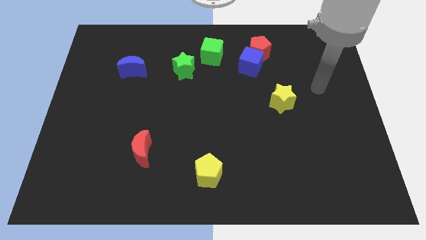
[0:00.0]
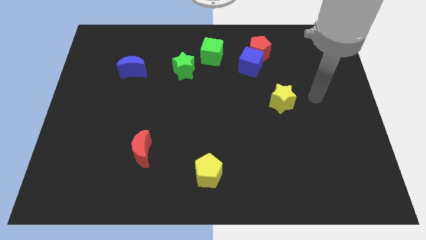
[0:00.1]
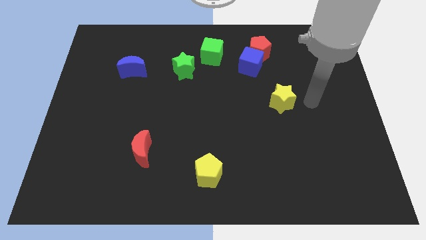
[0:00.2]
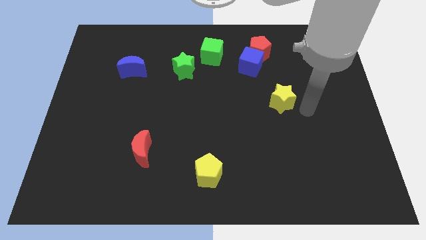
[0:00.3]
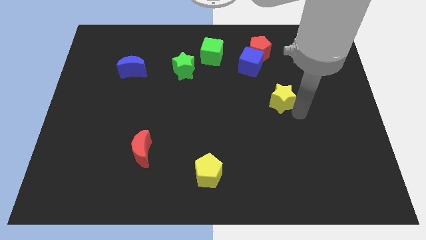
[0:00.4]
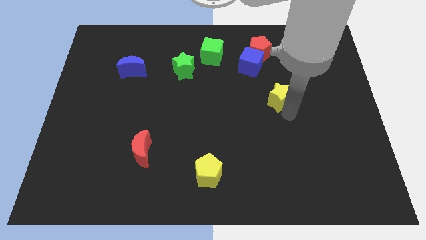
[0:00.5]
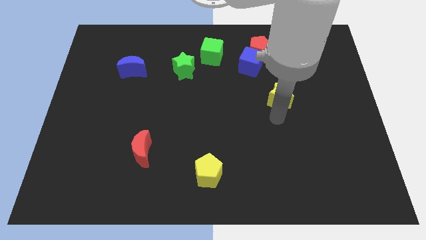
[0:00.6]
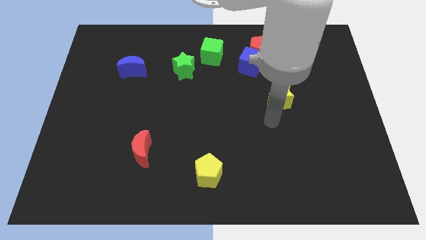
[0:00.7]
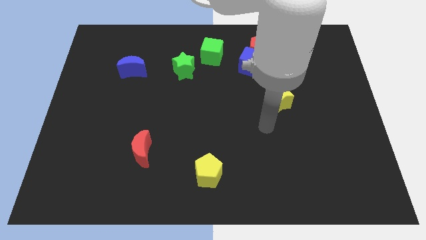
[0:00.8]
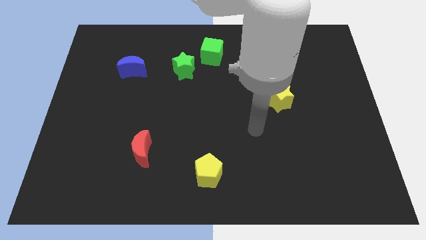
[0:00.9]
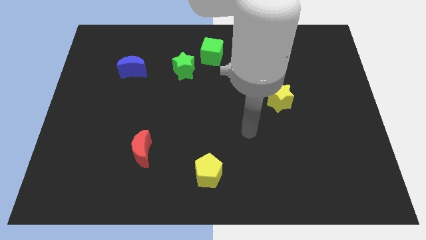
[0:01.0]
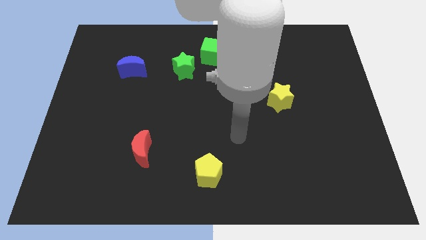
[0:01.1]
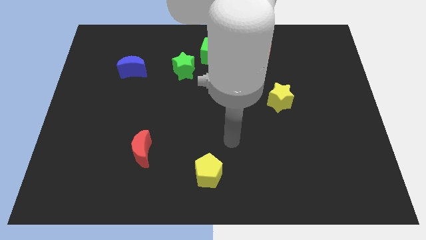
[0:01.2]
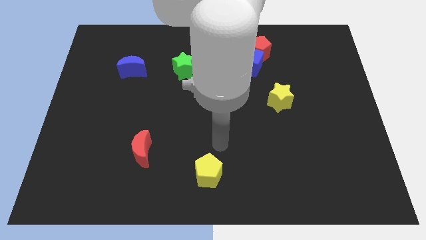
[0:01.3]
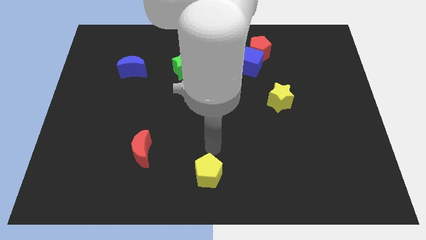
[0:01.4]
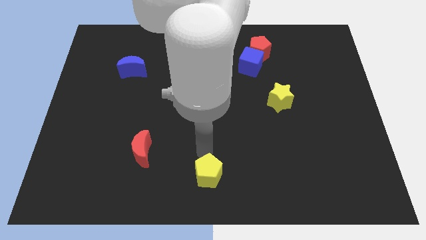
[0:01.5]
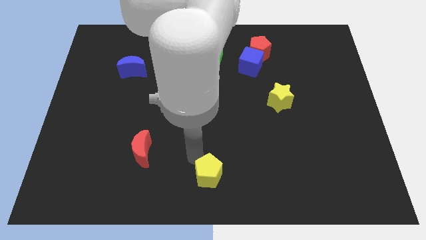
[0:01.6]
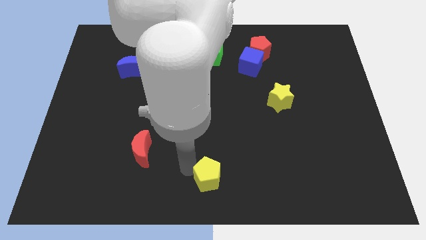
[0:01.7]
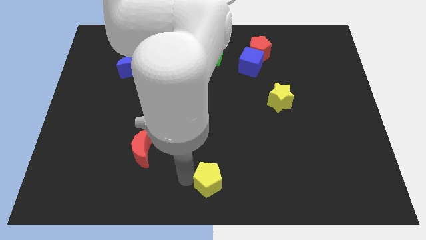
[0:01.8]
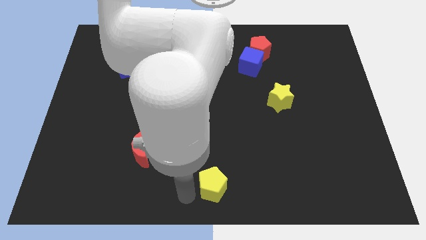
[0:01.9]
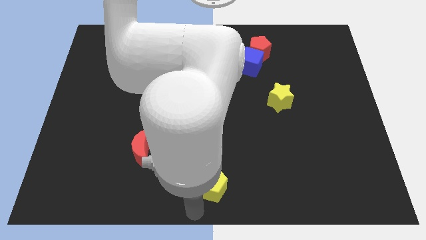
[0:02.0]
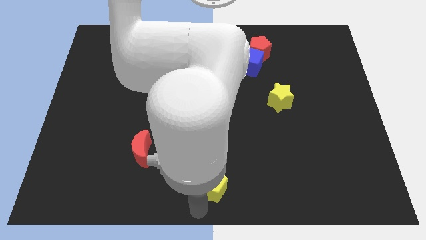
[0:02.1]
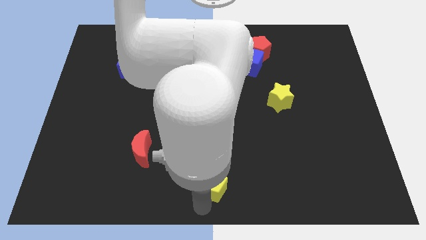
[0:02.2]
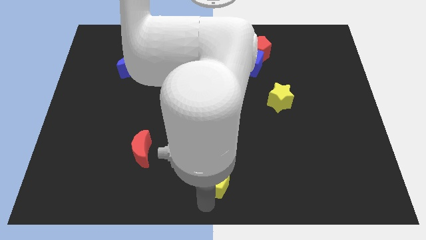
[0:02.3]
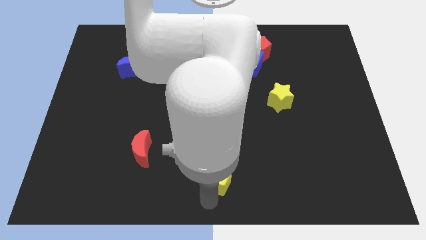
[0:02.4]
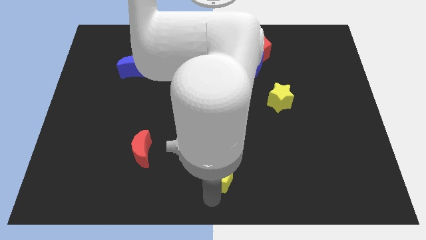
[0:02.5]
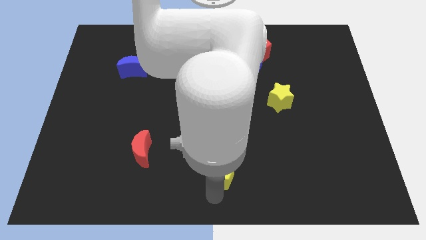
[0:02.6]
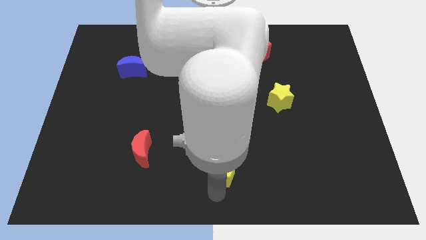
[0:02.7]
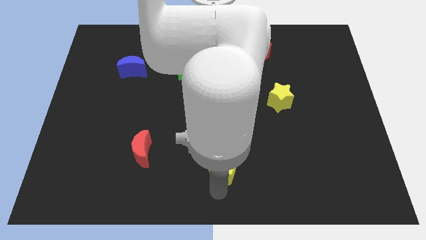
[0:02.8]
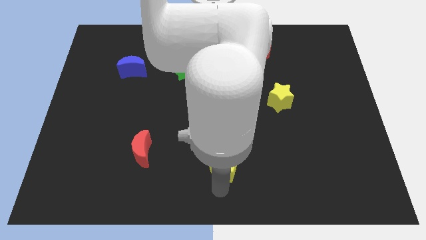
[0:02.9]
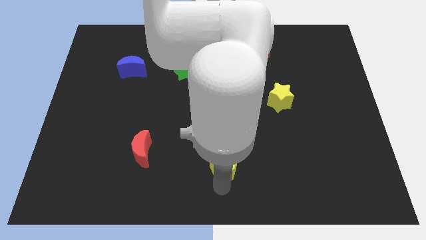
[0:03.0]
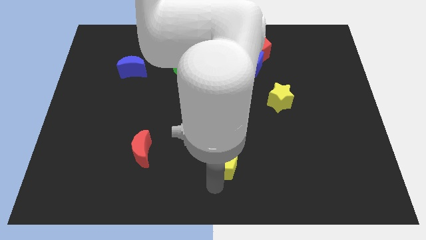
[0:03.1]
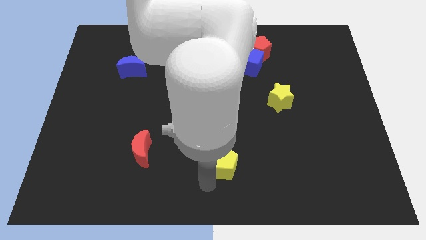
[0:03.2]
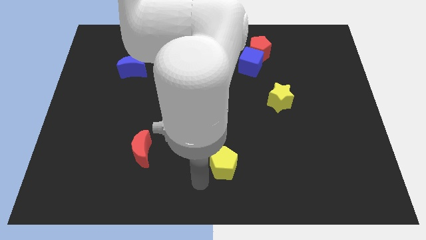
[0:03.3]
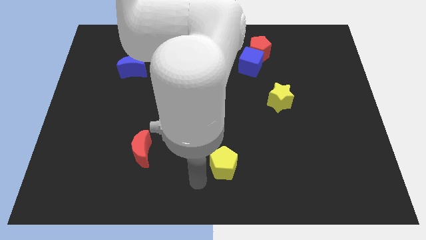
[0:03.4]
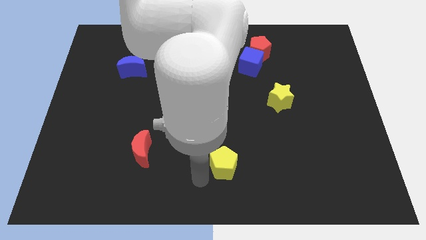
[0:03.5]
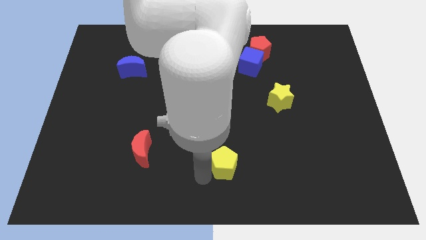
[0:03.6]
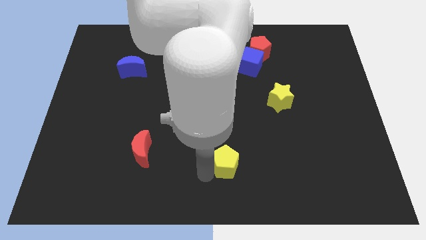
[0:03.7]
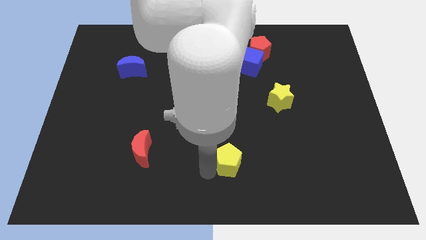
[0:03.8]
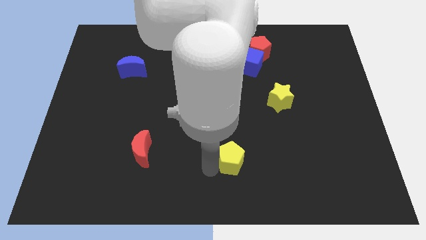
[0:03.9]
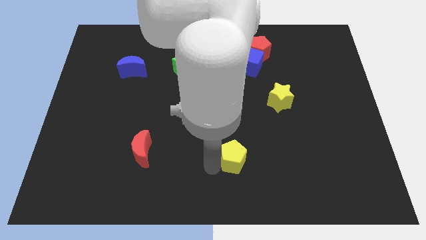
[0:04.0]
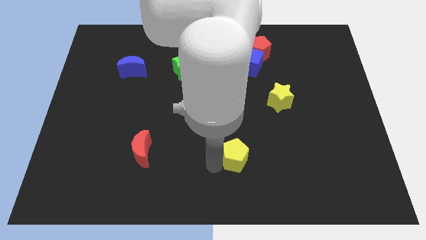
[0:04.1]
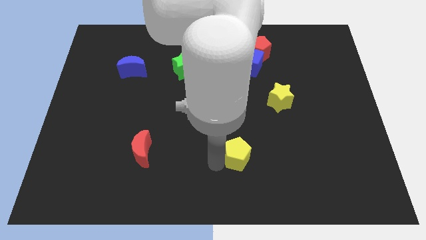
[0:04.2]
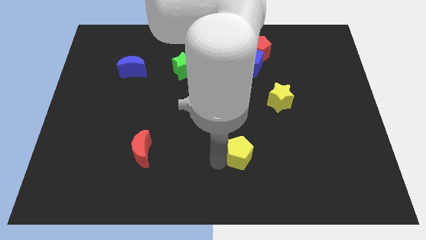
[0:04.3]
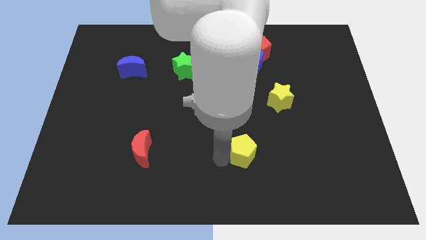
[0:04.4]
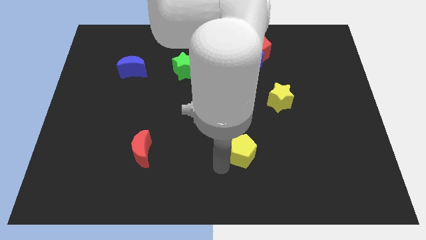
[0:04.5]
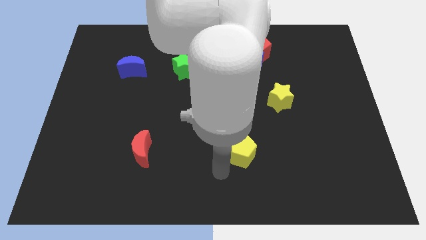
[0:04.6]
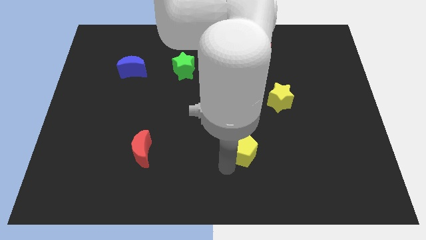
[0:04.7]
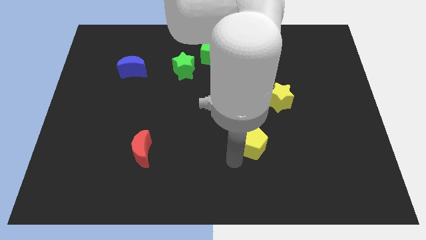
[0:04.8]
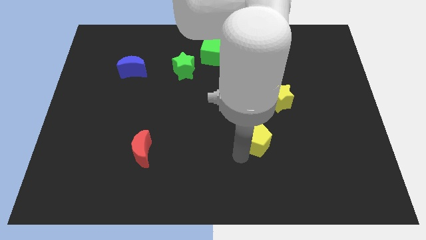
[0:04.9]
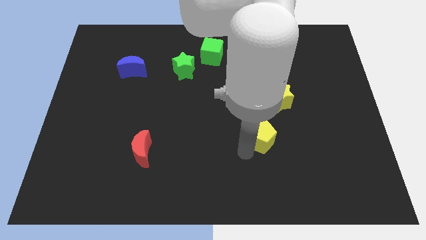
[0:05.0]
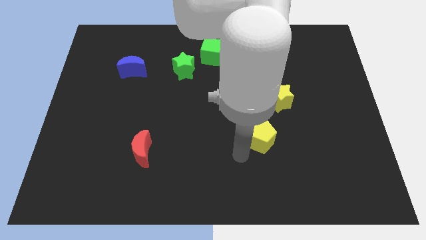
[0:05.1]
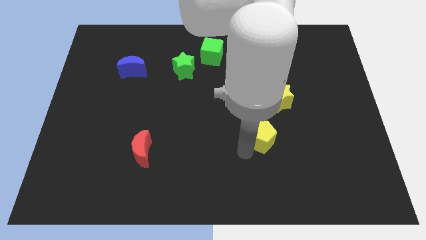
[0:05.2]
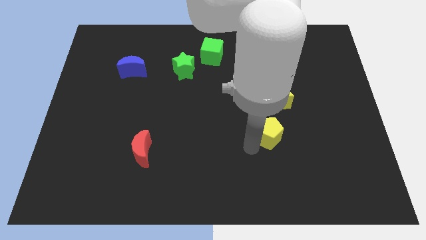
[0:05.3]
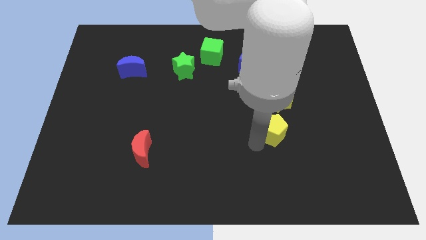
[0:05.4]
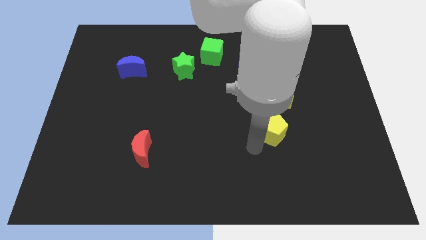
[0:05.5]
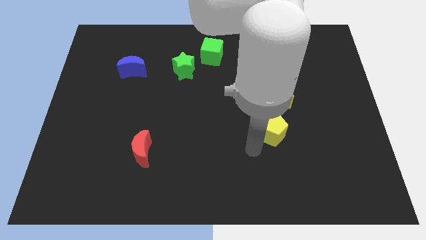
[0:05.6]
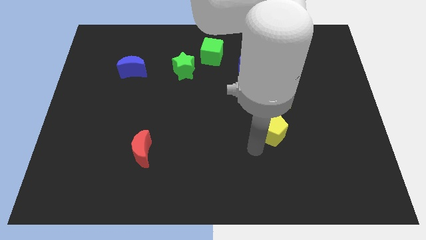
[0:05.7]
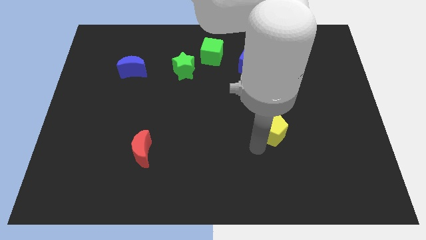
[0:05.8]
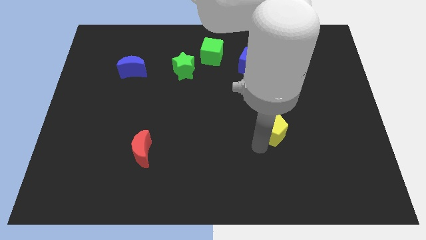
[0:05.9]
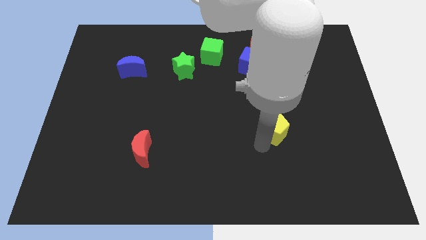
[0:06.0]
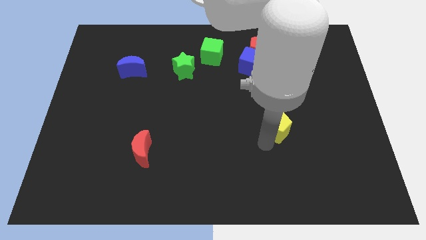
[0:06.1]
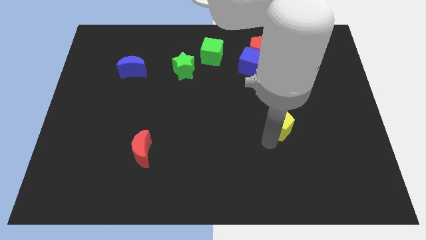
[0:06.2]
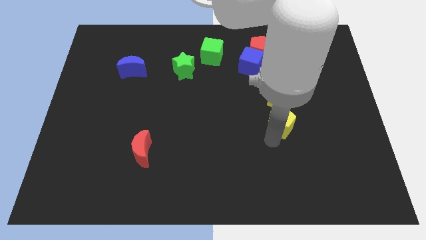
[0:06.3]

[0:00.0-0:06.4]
slide the yellow pentagon upwards and to the right diagonally

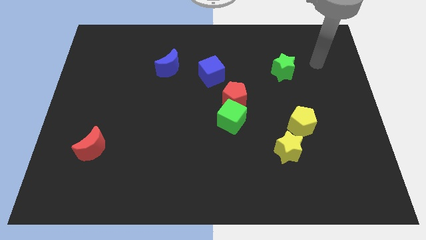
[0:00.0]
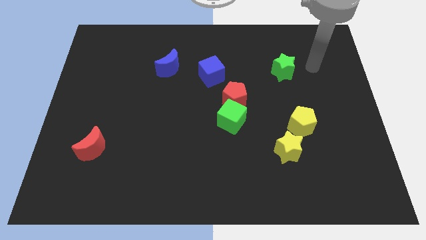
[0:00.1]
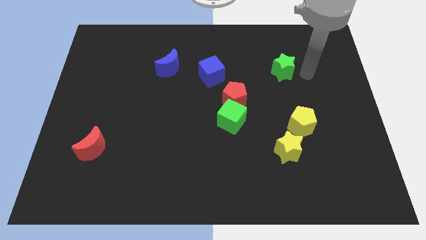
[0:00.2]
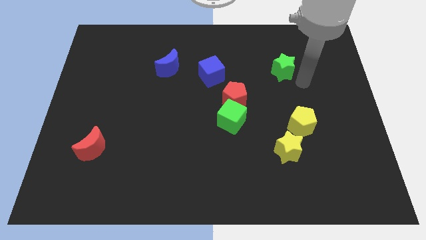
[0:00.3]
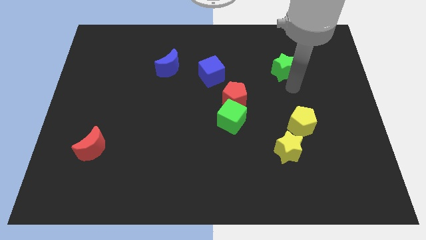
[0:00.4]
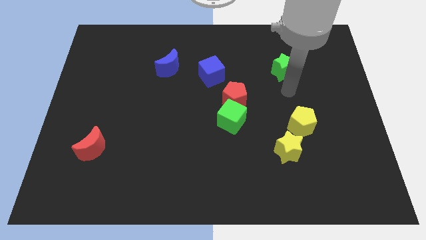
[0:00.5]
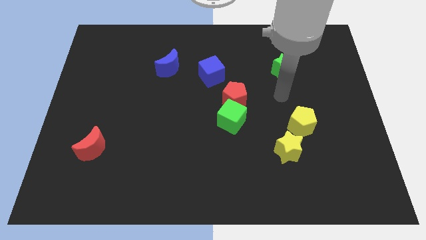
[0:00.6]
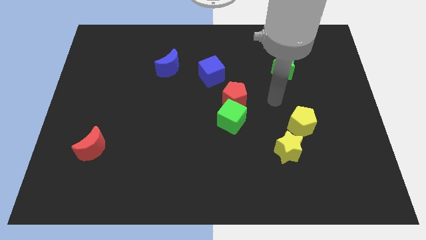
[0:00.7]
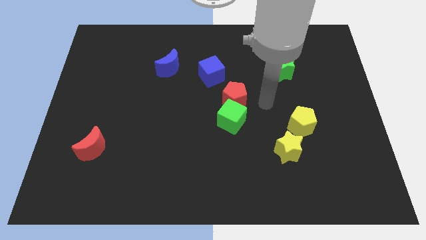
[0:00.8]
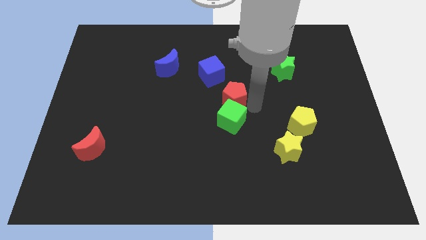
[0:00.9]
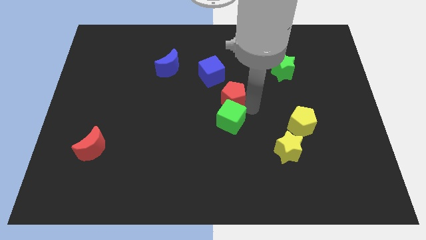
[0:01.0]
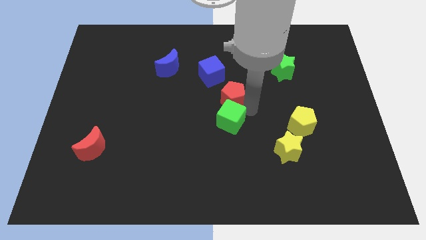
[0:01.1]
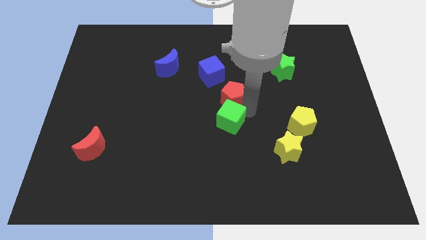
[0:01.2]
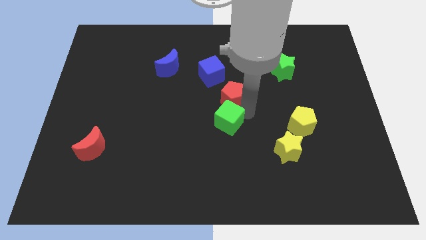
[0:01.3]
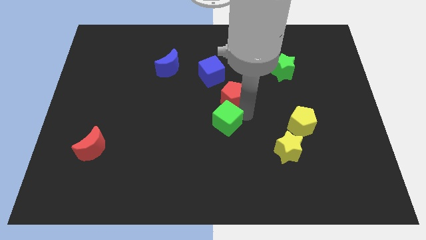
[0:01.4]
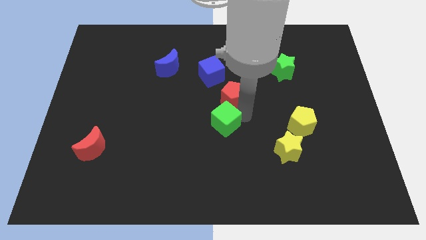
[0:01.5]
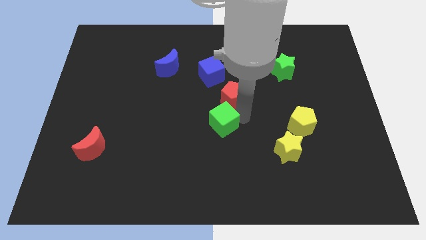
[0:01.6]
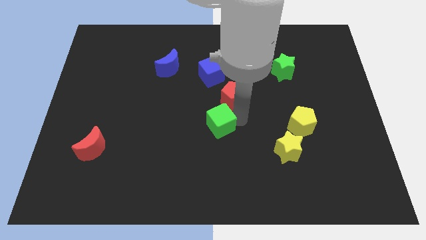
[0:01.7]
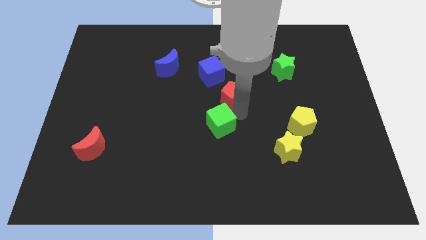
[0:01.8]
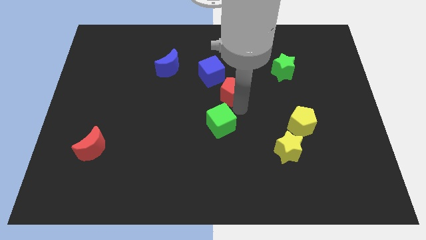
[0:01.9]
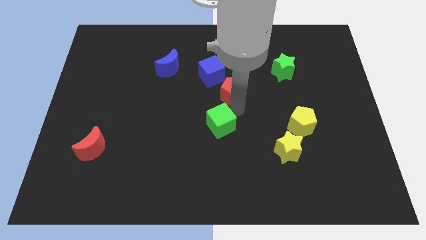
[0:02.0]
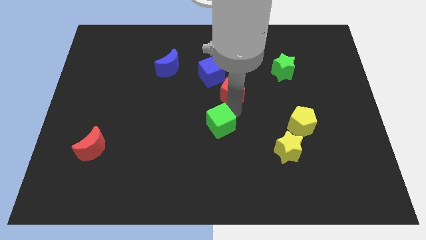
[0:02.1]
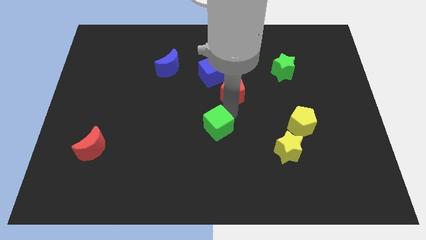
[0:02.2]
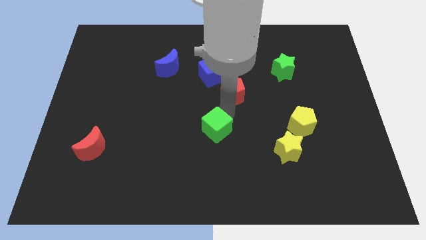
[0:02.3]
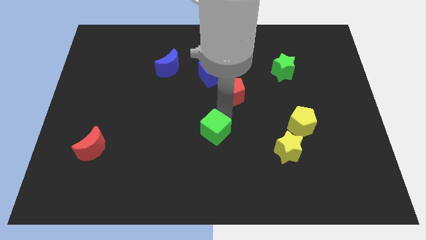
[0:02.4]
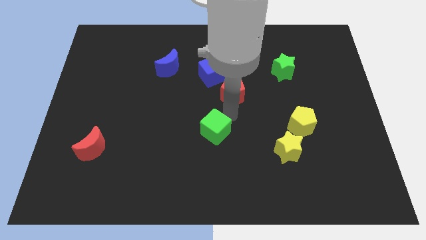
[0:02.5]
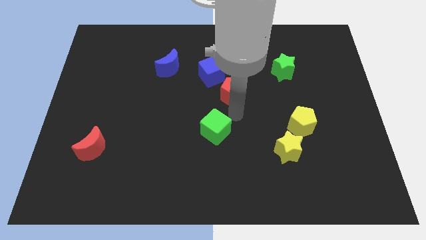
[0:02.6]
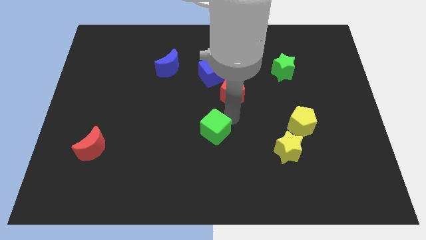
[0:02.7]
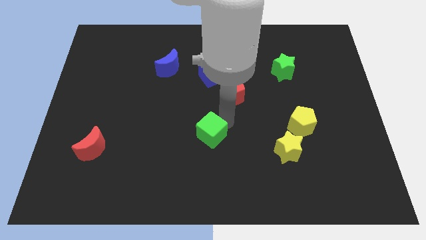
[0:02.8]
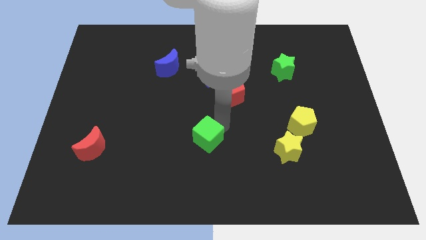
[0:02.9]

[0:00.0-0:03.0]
slightly move the green cube down and then left
